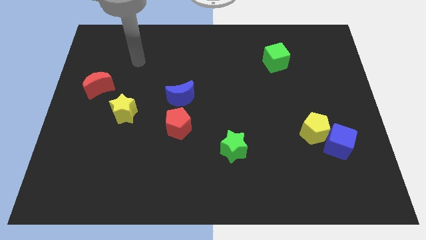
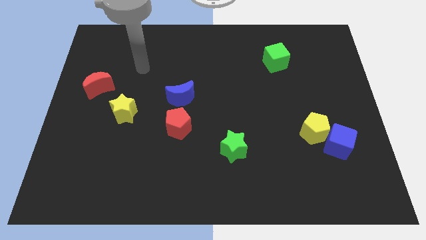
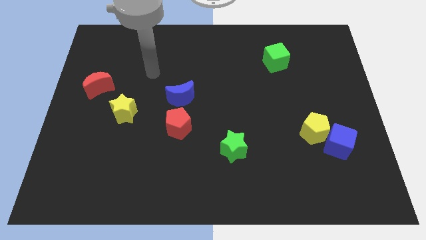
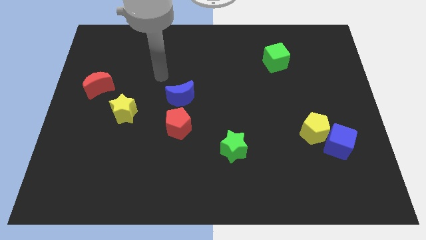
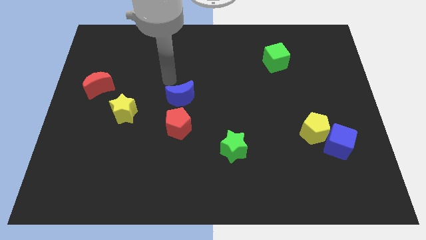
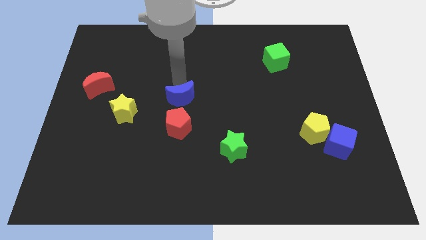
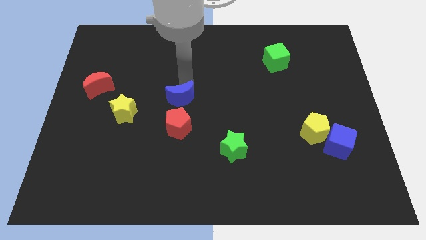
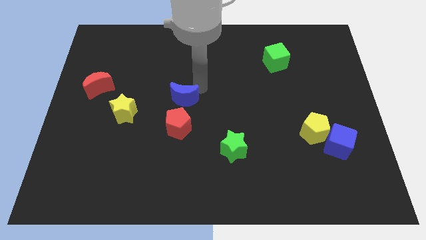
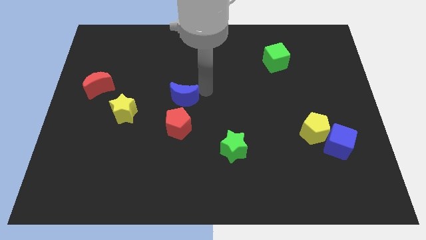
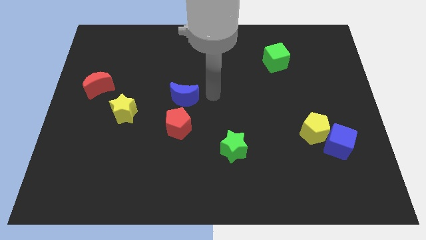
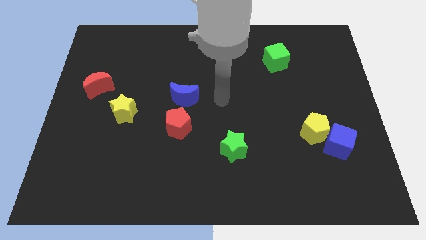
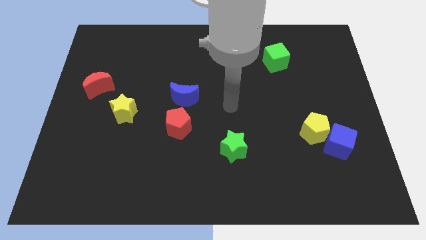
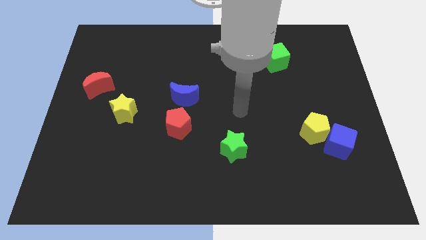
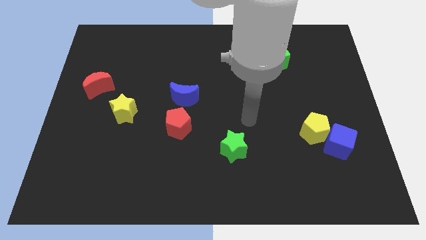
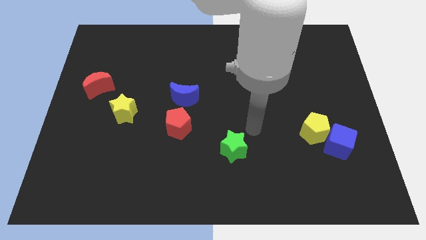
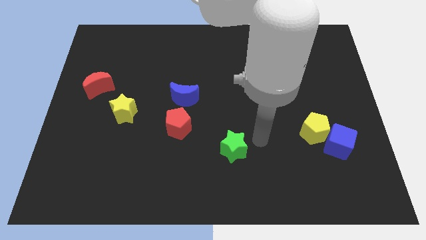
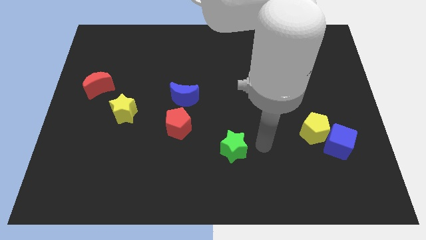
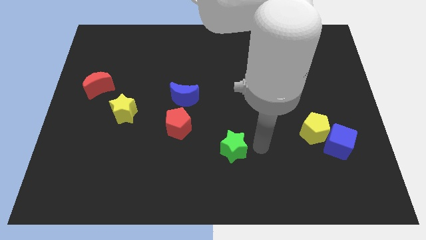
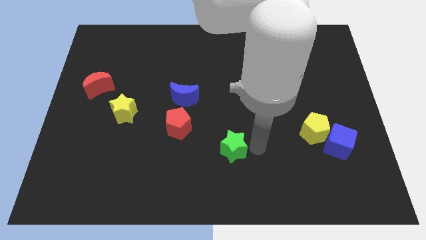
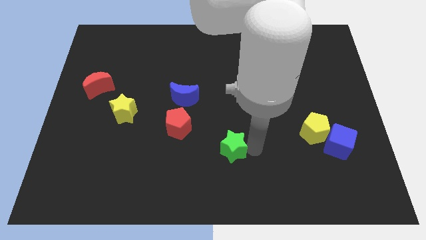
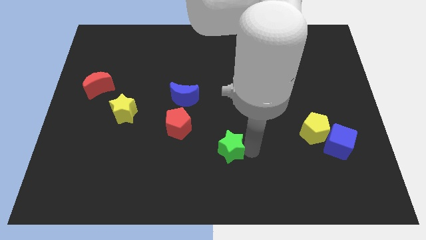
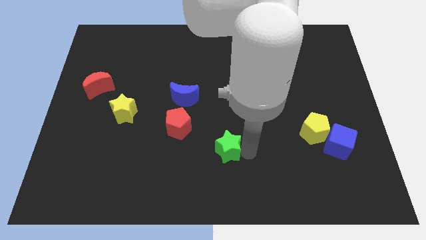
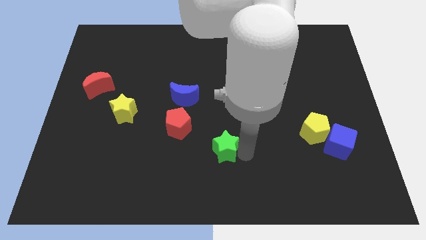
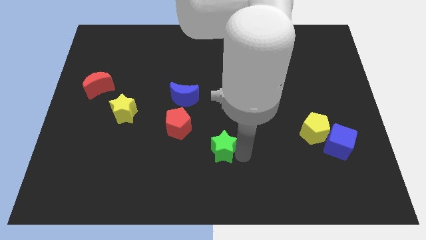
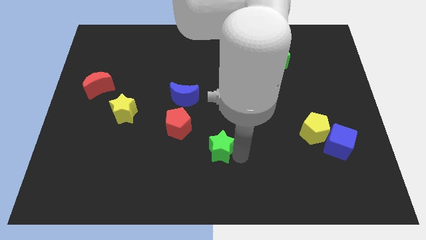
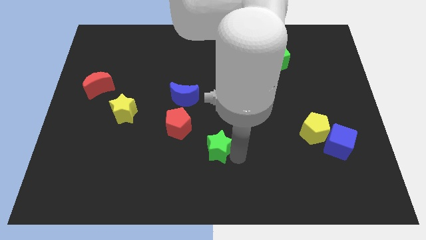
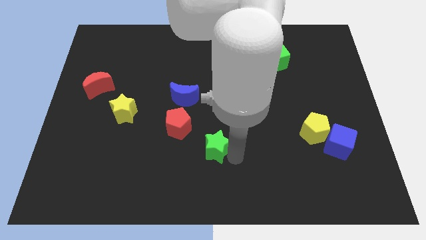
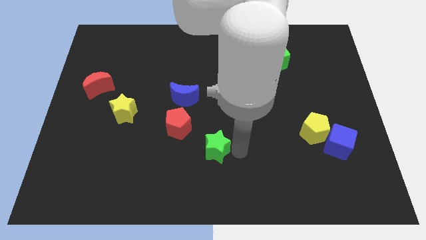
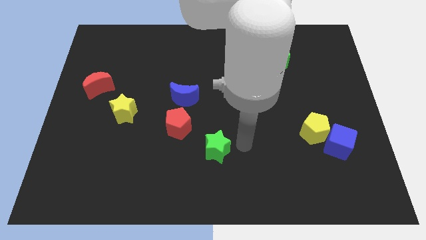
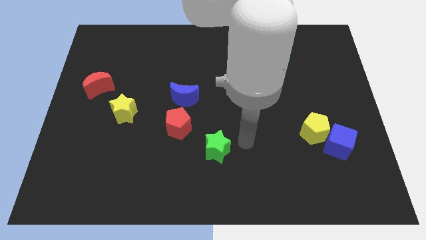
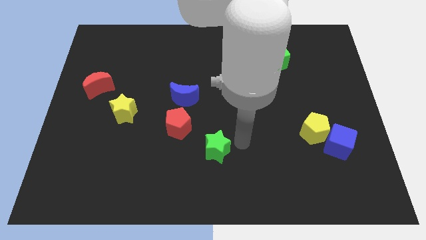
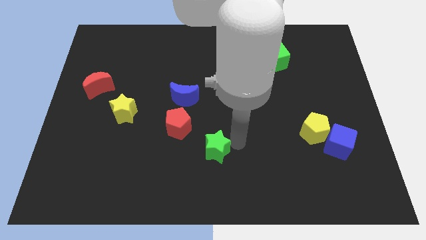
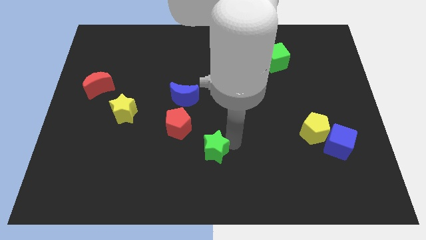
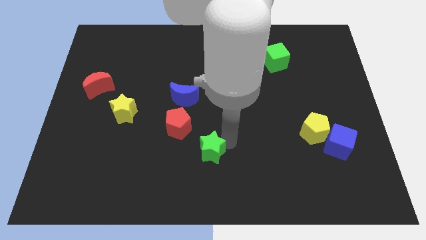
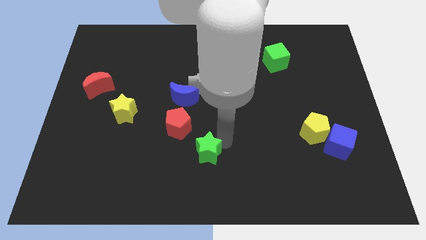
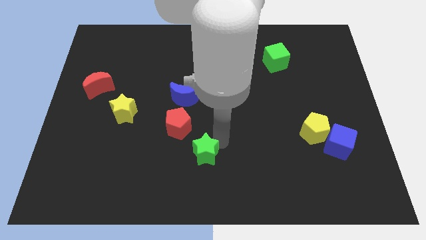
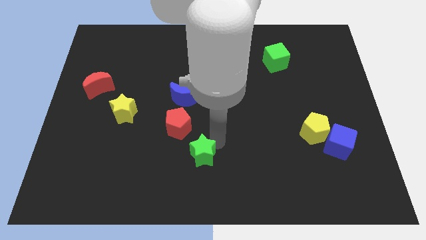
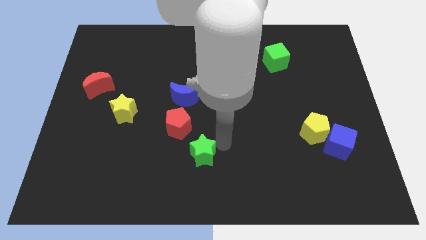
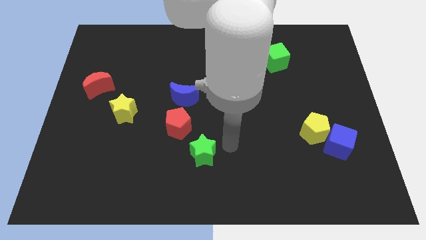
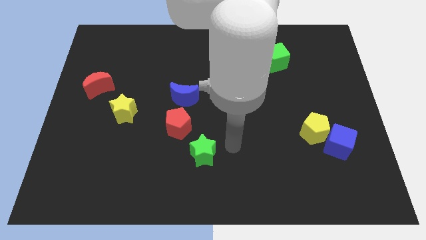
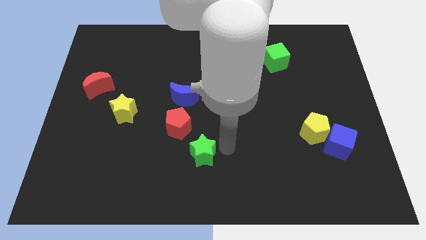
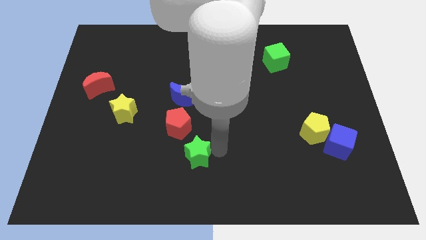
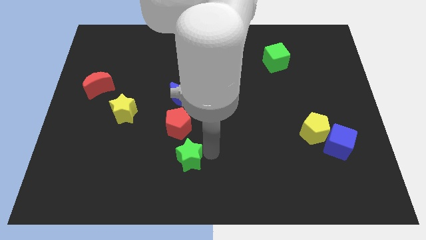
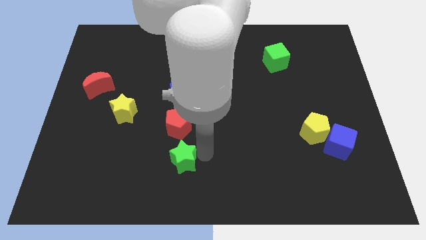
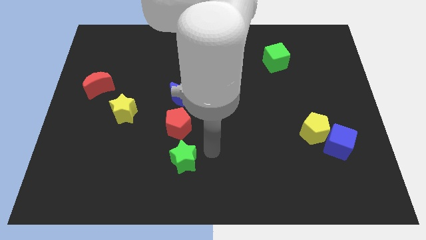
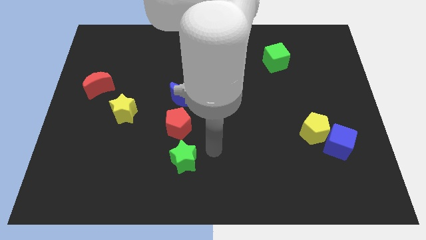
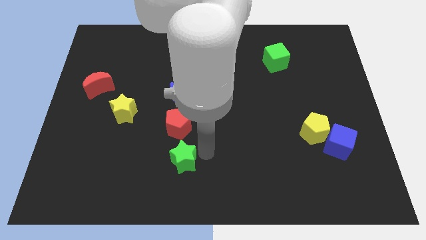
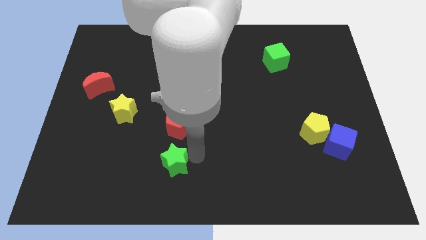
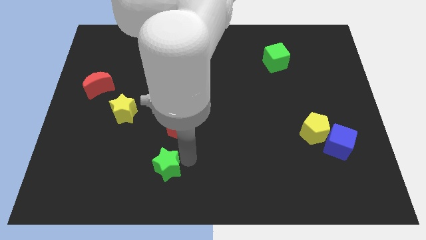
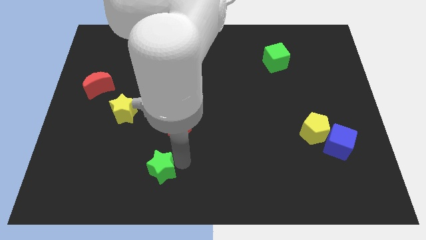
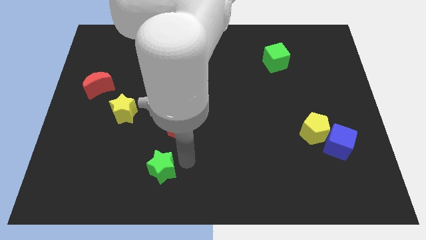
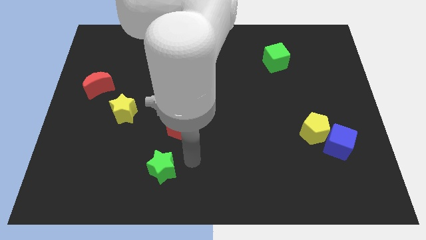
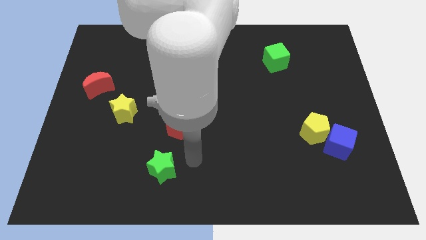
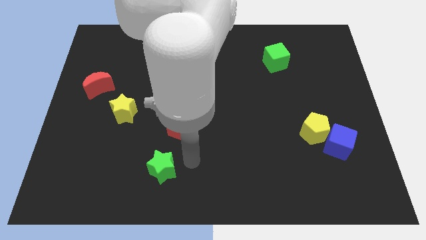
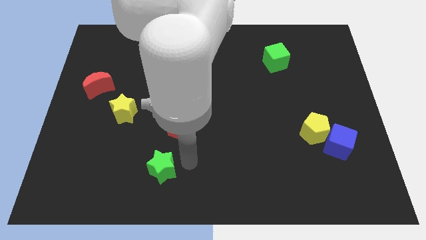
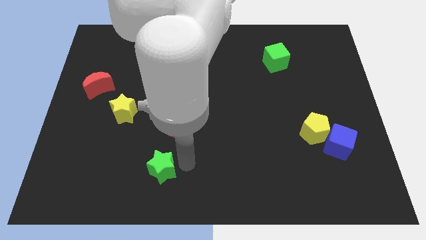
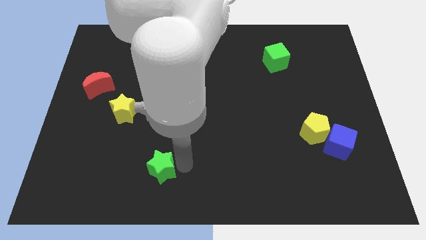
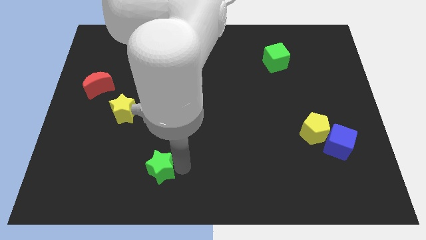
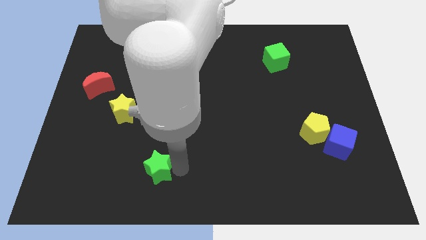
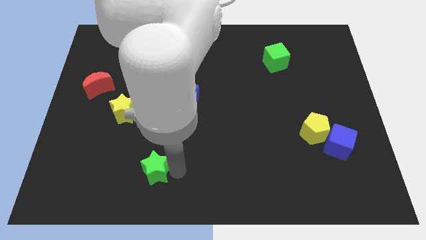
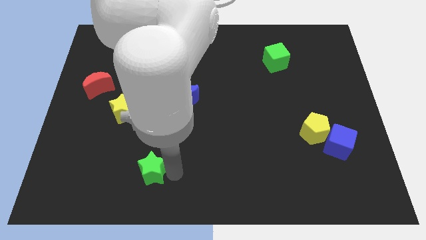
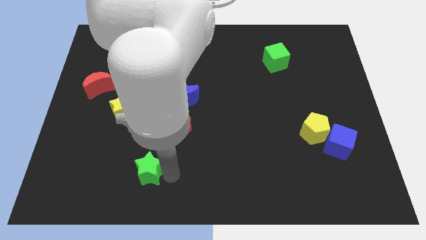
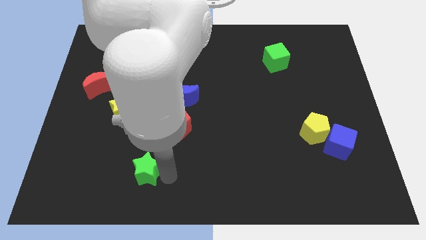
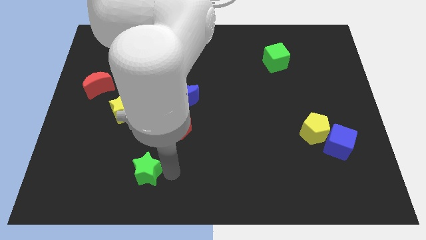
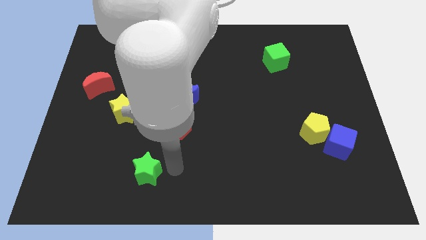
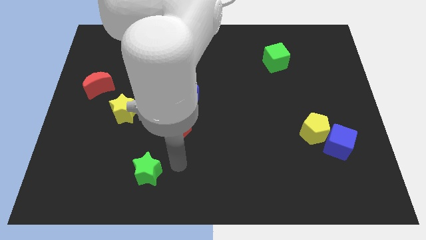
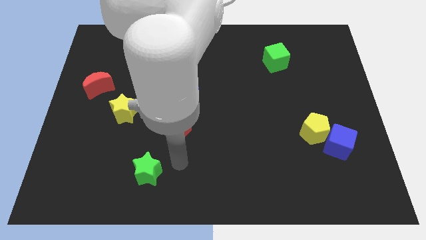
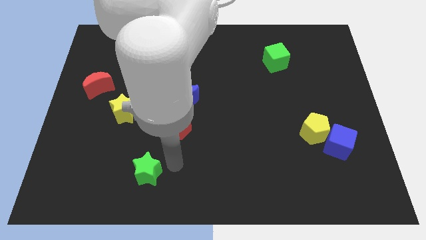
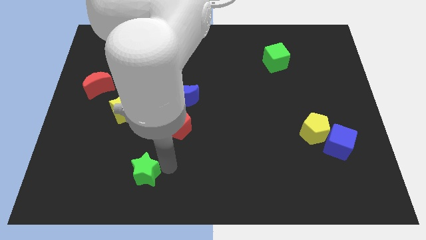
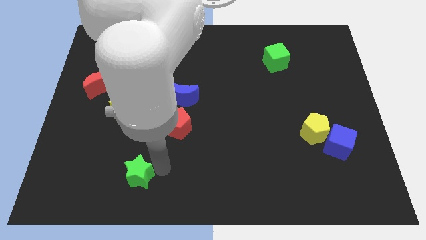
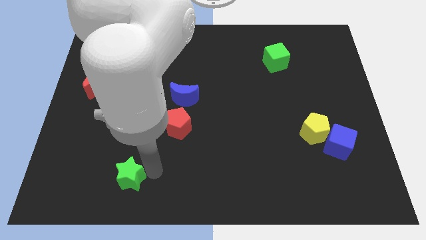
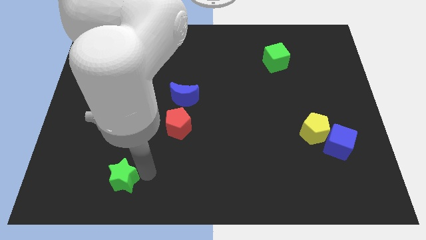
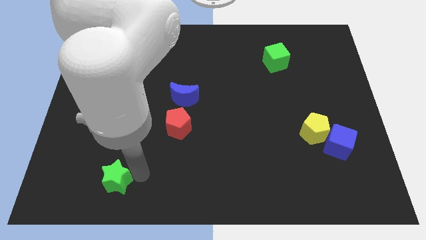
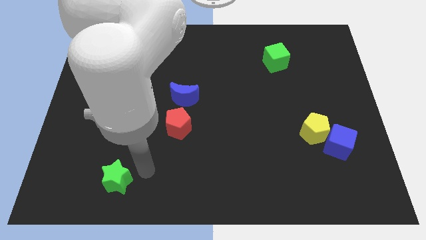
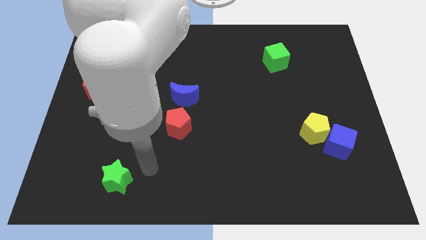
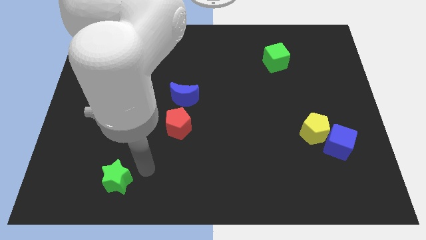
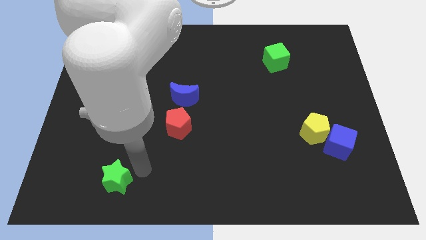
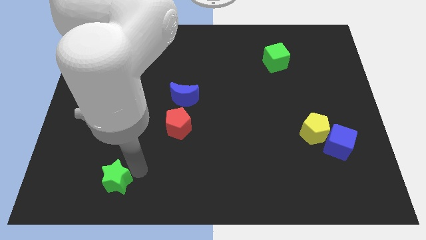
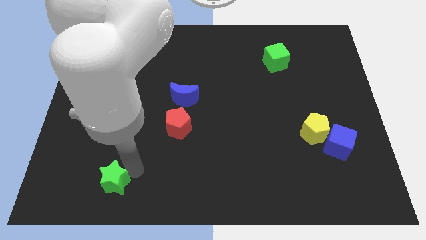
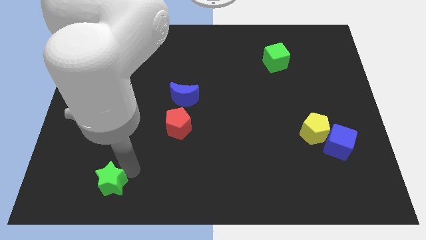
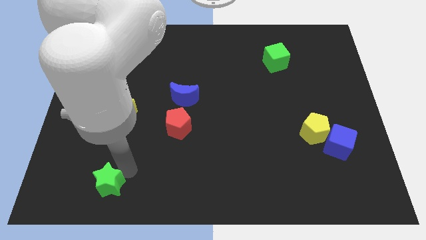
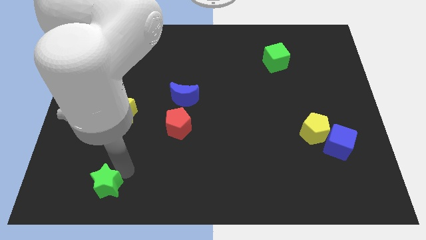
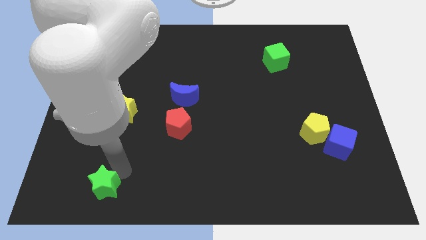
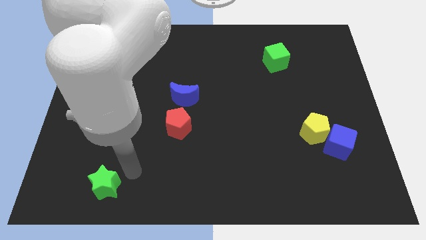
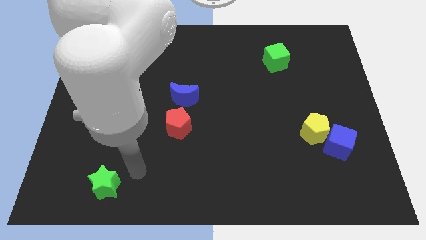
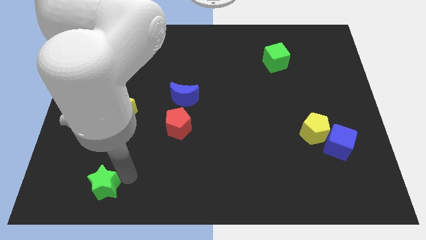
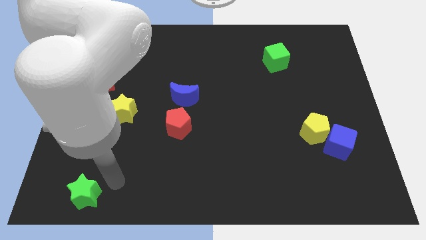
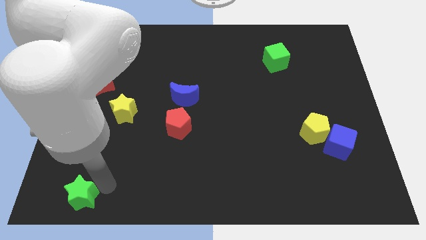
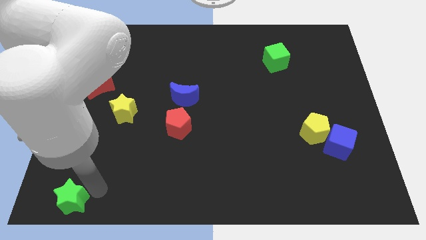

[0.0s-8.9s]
slide the green star to the lower left corner
